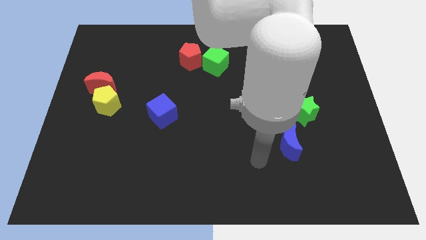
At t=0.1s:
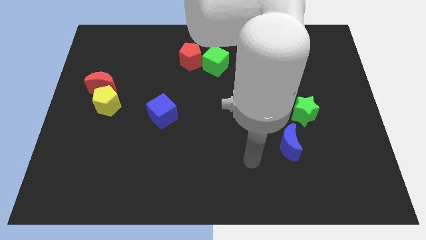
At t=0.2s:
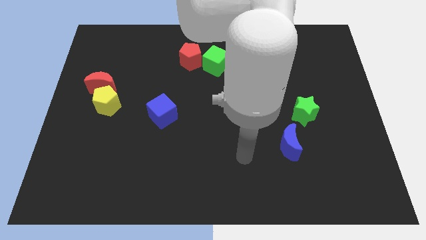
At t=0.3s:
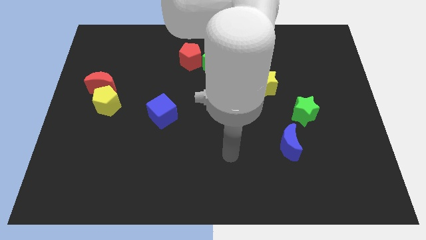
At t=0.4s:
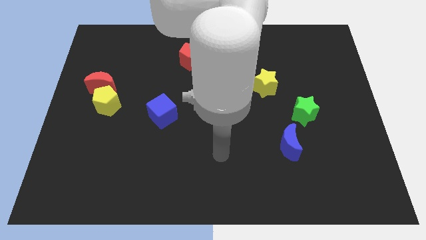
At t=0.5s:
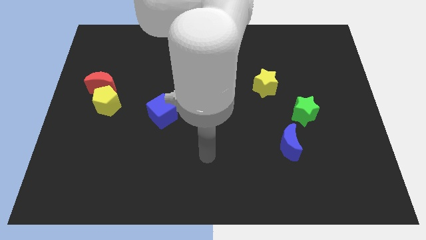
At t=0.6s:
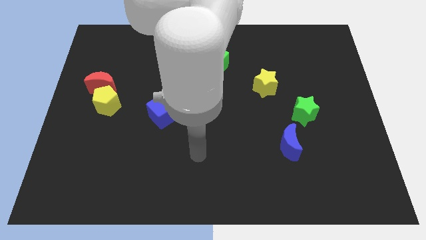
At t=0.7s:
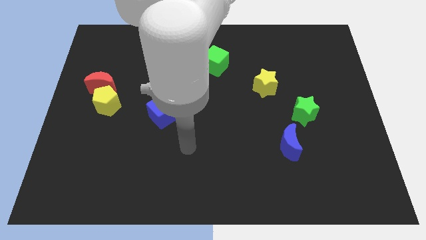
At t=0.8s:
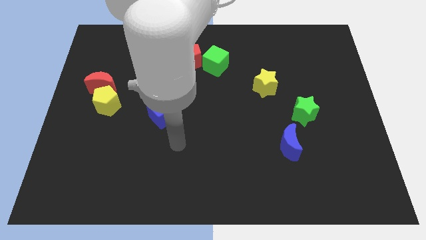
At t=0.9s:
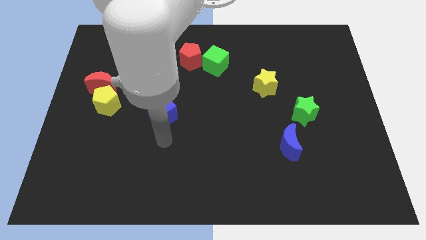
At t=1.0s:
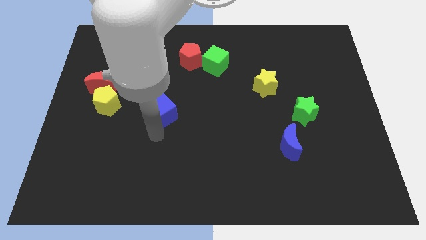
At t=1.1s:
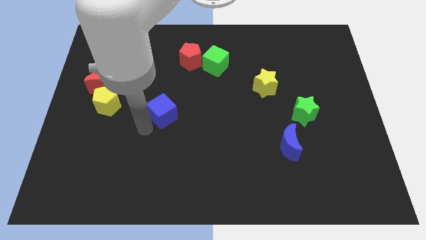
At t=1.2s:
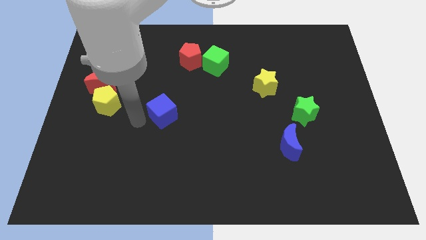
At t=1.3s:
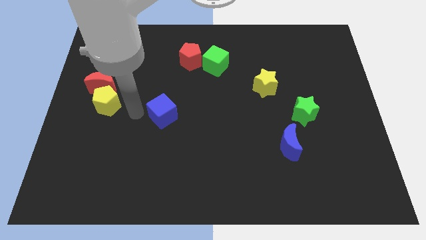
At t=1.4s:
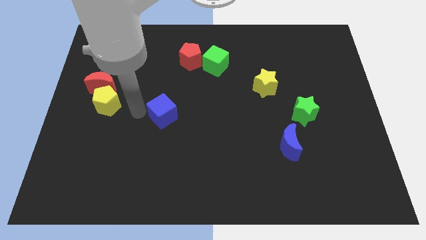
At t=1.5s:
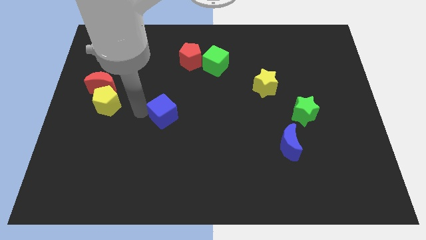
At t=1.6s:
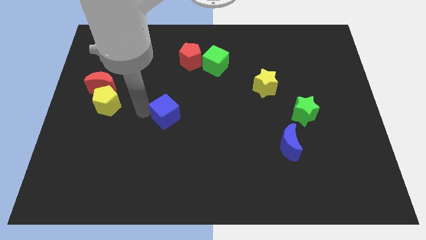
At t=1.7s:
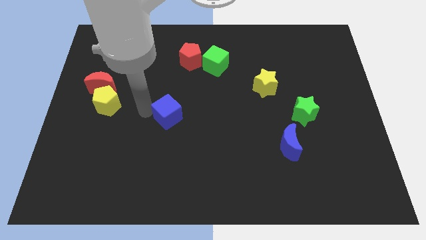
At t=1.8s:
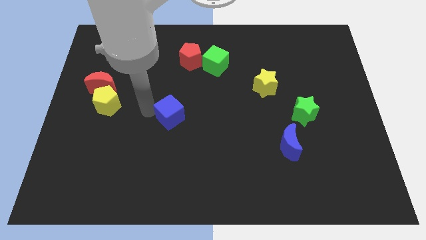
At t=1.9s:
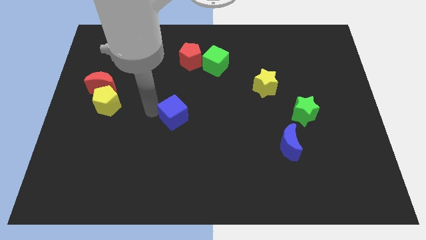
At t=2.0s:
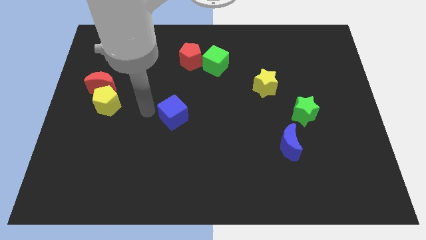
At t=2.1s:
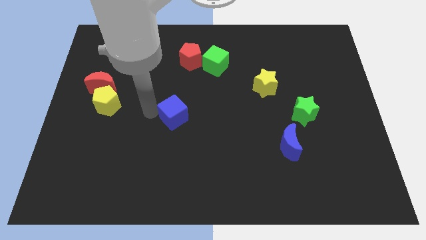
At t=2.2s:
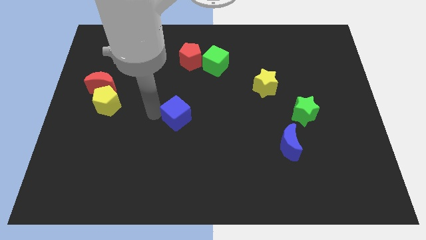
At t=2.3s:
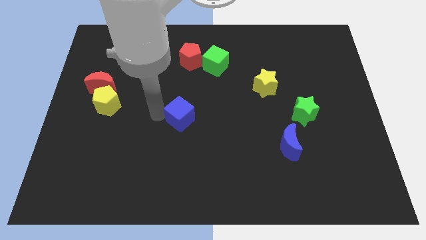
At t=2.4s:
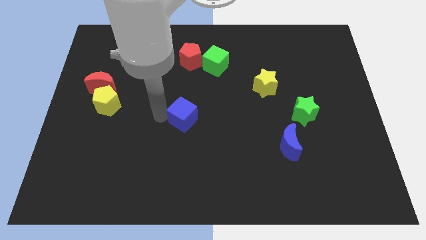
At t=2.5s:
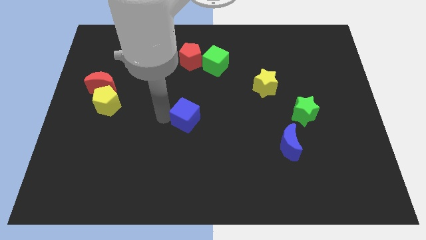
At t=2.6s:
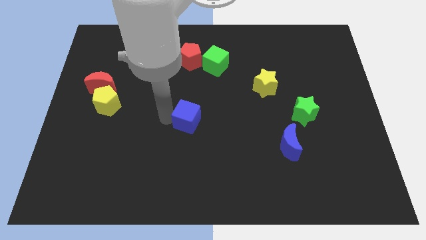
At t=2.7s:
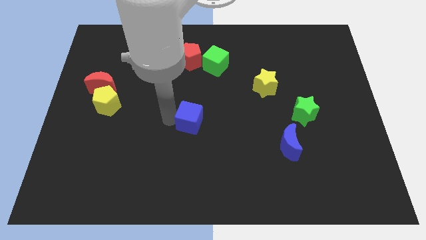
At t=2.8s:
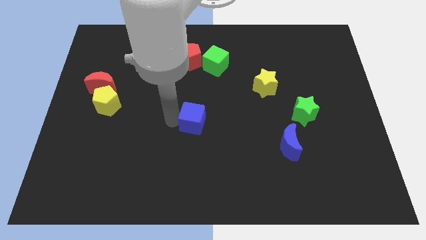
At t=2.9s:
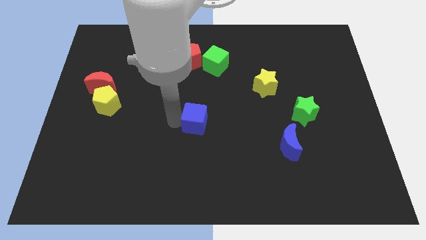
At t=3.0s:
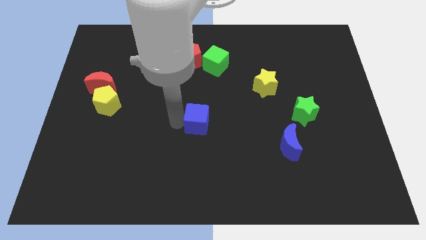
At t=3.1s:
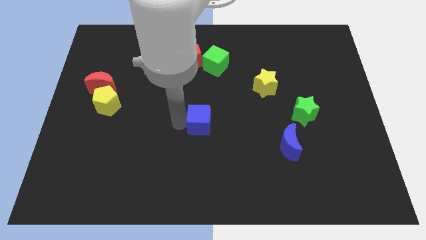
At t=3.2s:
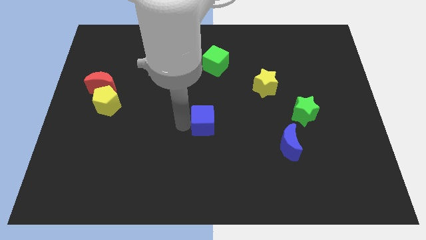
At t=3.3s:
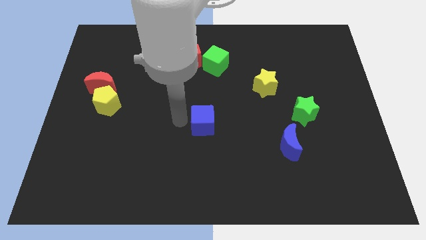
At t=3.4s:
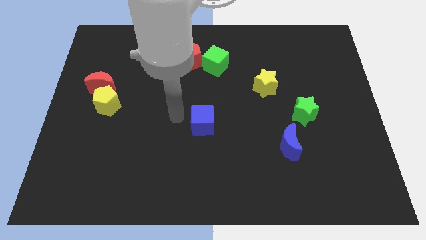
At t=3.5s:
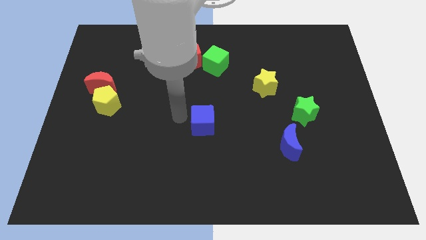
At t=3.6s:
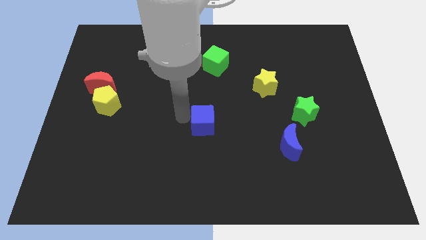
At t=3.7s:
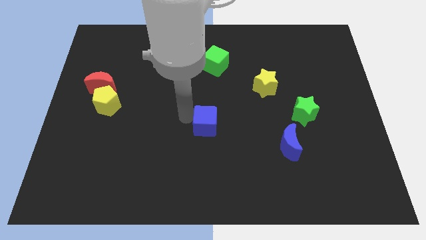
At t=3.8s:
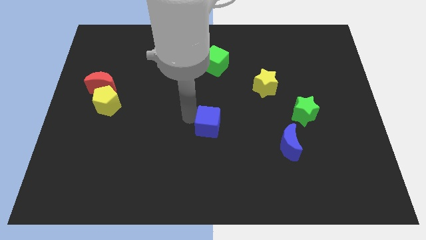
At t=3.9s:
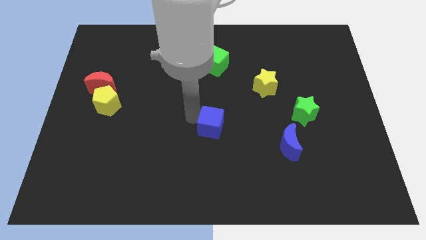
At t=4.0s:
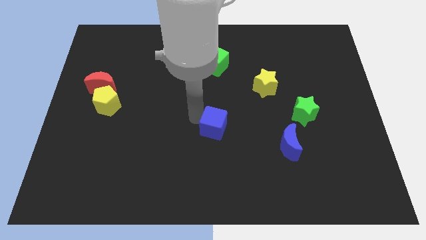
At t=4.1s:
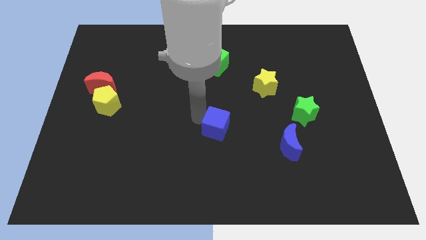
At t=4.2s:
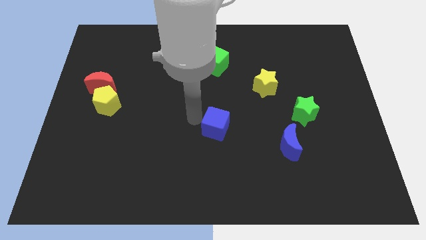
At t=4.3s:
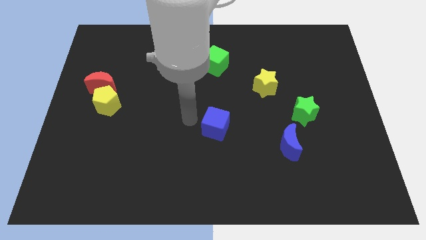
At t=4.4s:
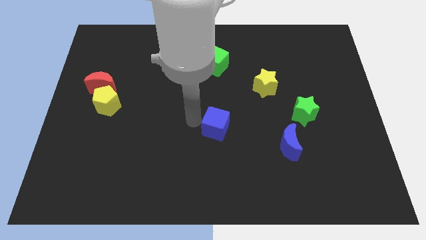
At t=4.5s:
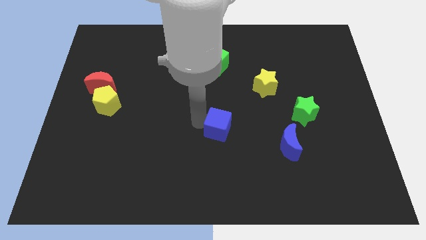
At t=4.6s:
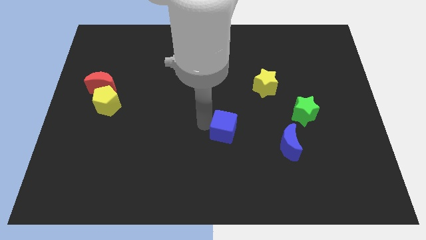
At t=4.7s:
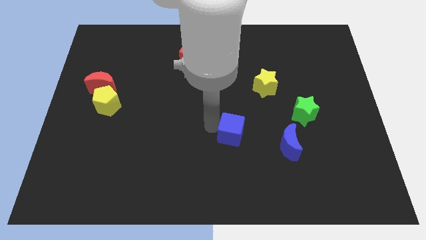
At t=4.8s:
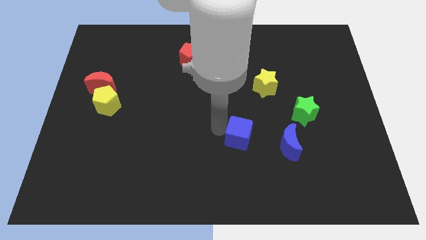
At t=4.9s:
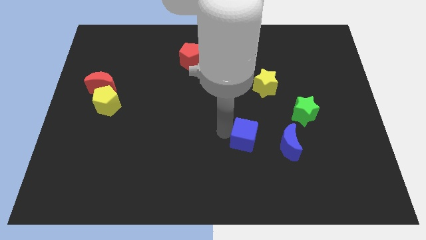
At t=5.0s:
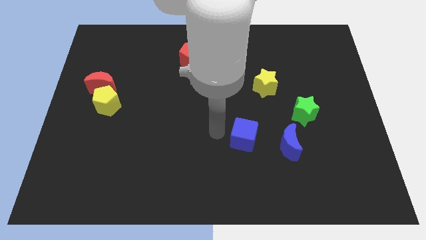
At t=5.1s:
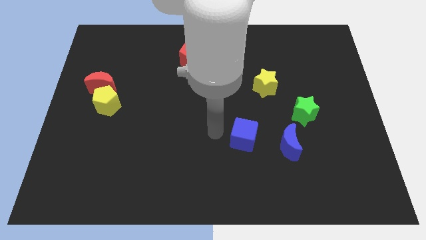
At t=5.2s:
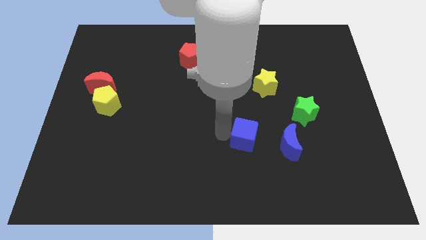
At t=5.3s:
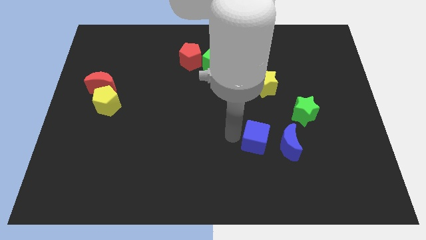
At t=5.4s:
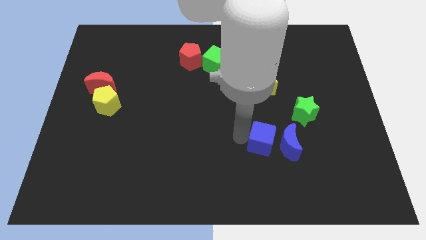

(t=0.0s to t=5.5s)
slide the blue cube close to the blue moon

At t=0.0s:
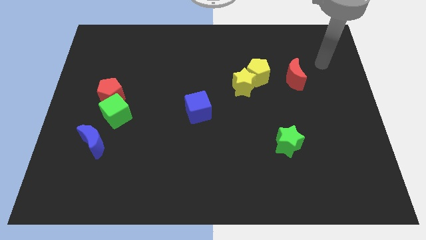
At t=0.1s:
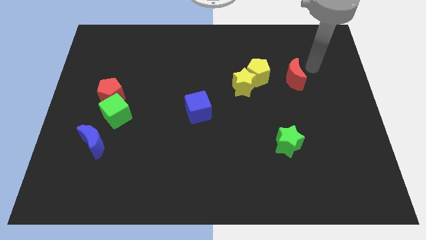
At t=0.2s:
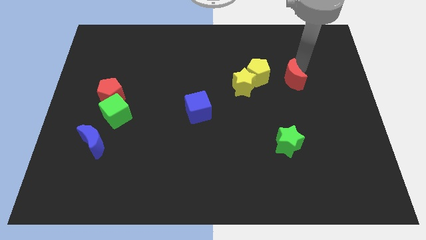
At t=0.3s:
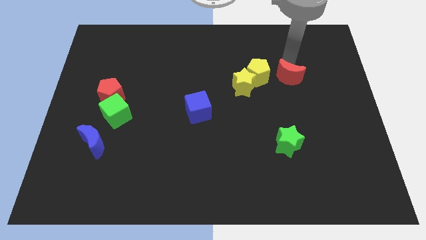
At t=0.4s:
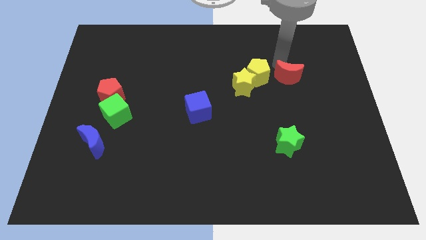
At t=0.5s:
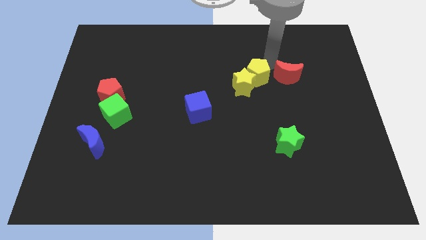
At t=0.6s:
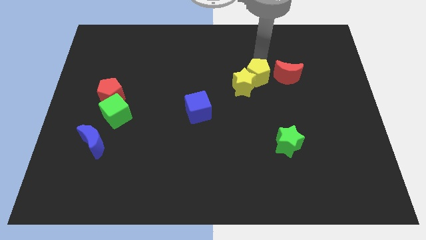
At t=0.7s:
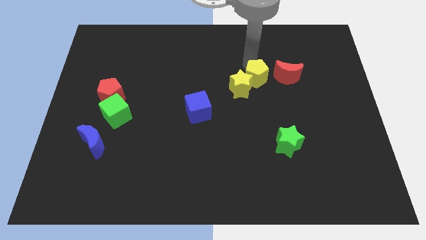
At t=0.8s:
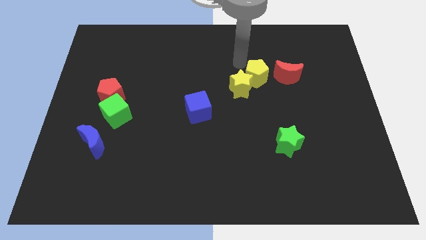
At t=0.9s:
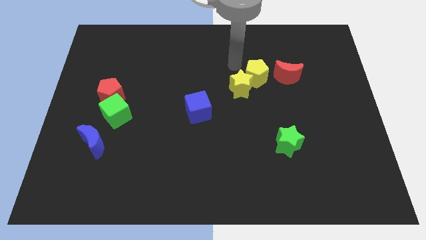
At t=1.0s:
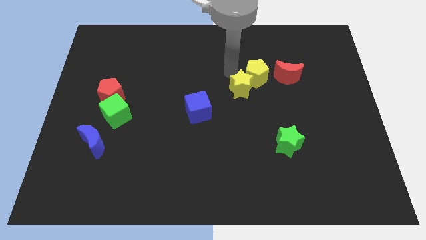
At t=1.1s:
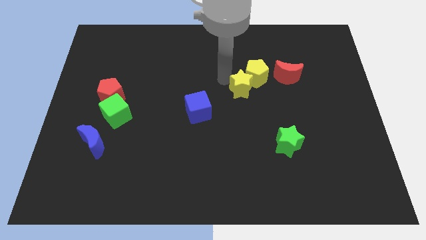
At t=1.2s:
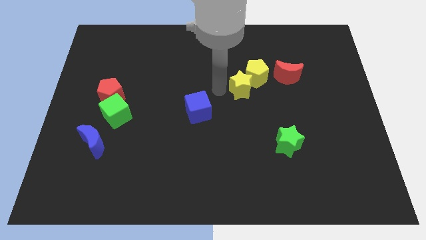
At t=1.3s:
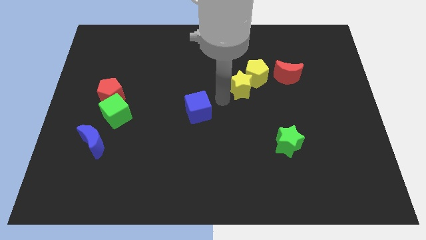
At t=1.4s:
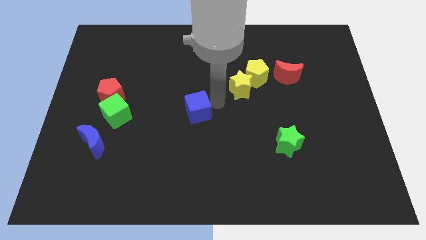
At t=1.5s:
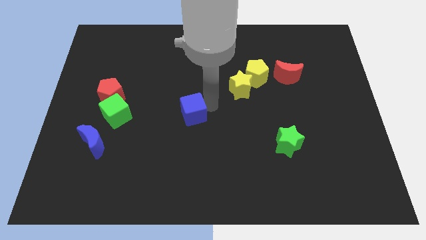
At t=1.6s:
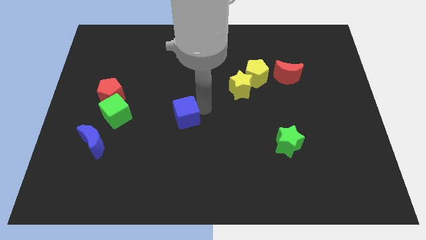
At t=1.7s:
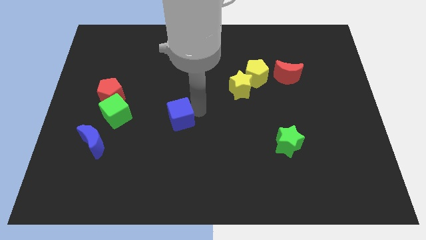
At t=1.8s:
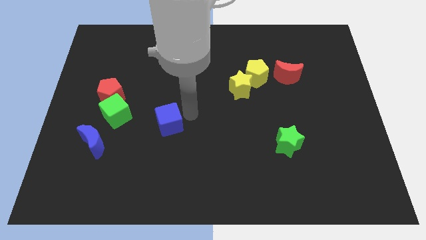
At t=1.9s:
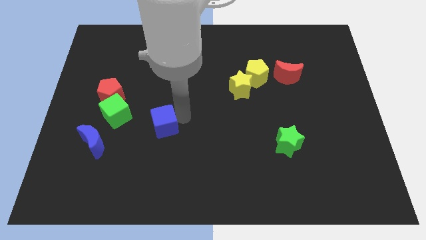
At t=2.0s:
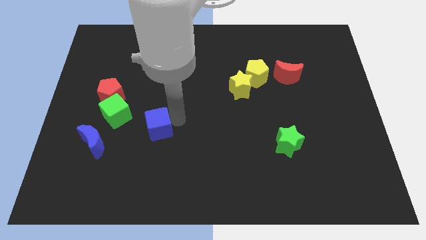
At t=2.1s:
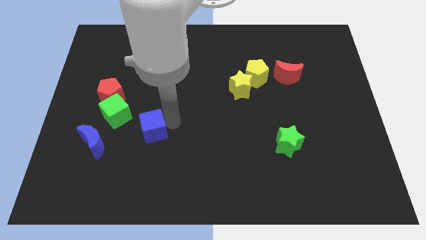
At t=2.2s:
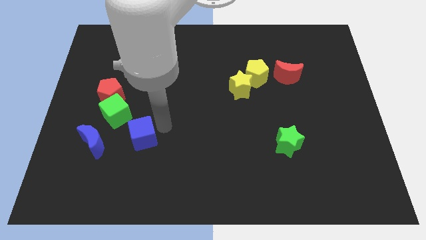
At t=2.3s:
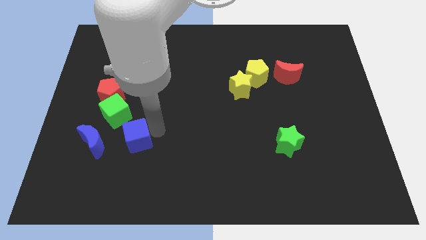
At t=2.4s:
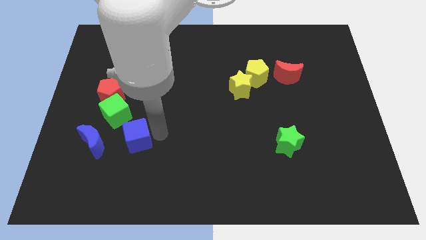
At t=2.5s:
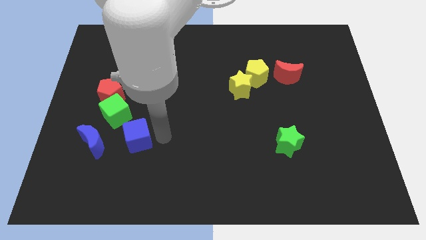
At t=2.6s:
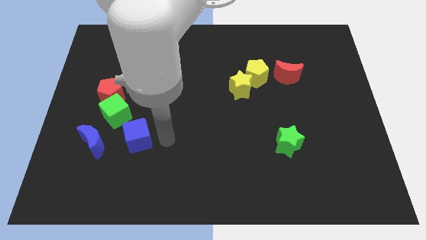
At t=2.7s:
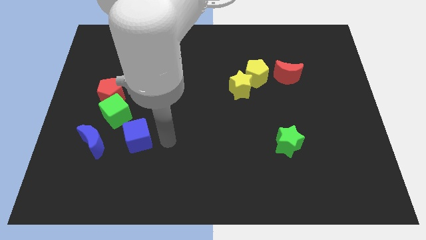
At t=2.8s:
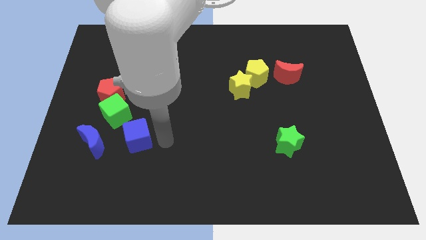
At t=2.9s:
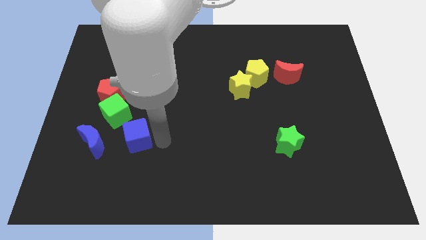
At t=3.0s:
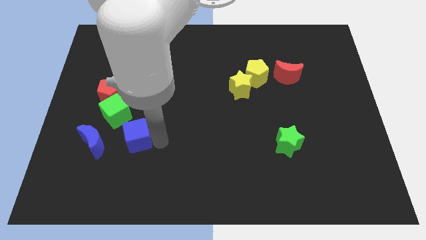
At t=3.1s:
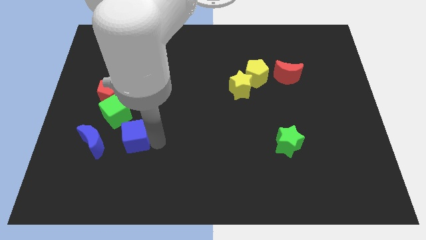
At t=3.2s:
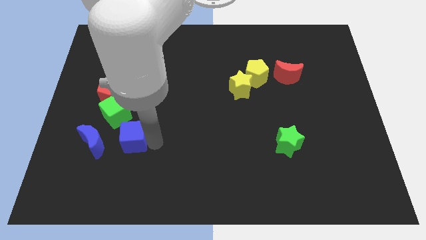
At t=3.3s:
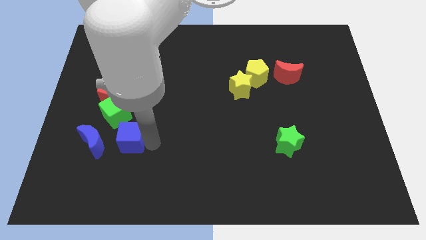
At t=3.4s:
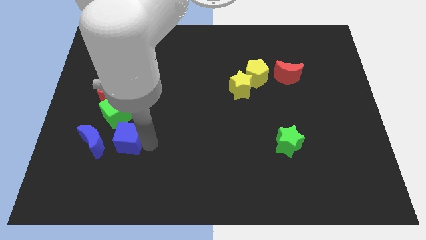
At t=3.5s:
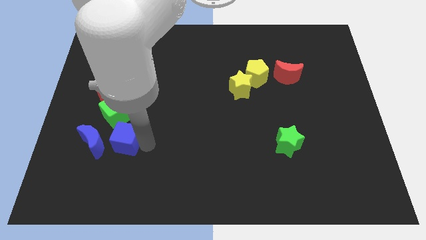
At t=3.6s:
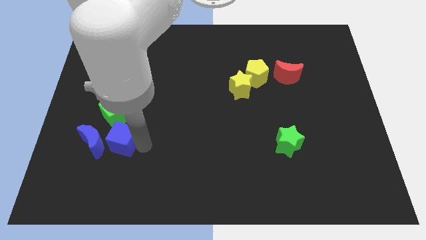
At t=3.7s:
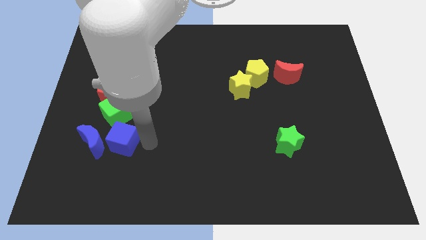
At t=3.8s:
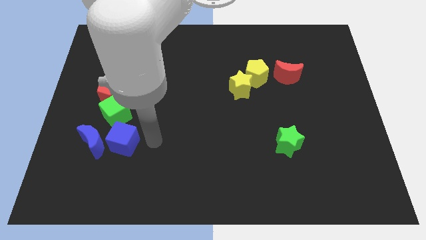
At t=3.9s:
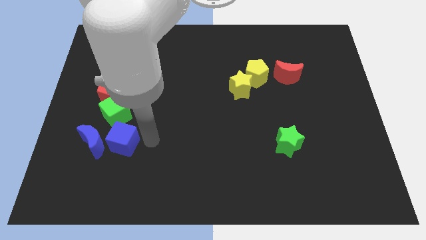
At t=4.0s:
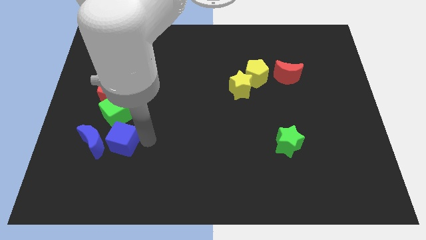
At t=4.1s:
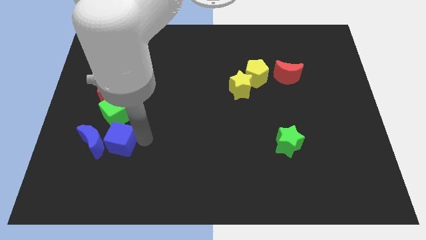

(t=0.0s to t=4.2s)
move the blue cube next to the blue moon
